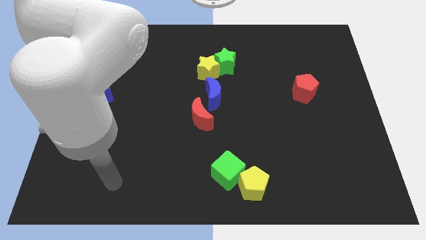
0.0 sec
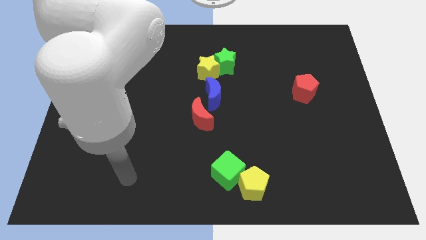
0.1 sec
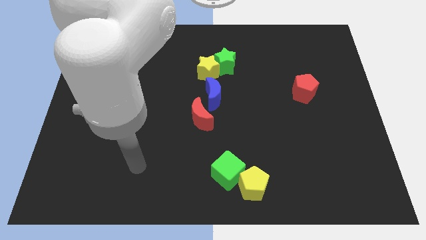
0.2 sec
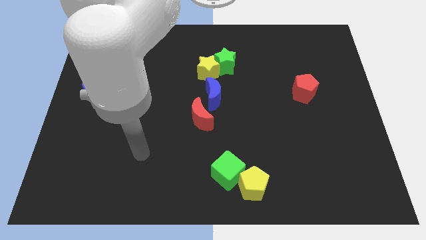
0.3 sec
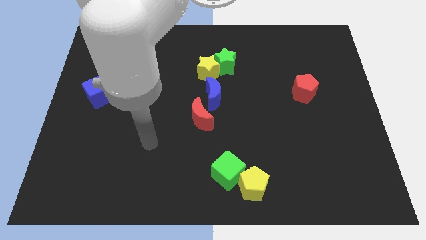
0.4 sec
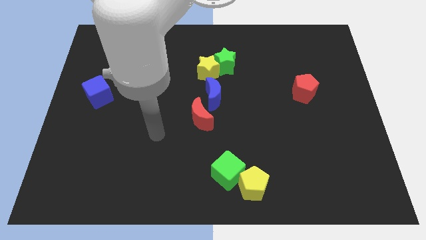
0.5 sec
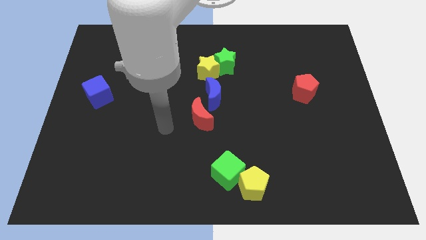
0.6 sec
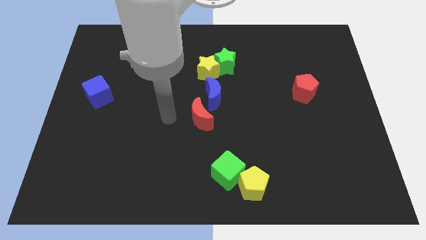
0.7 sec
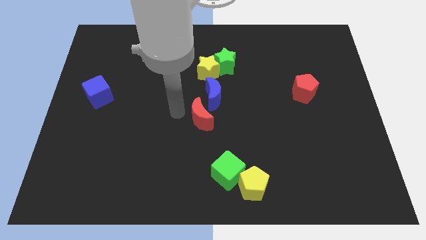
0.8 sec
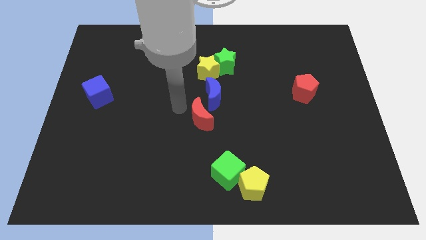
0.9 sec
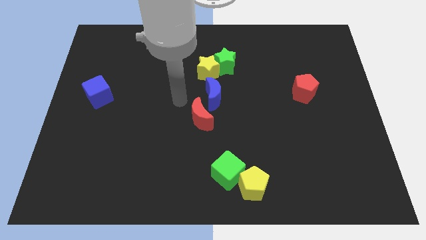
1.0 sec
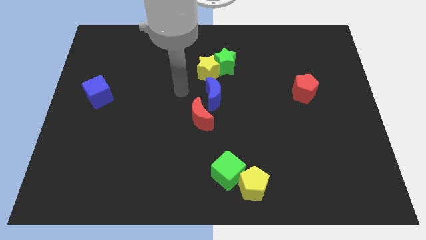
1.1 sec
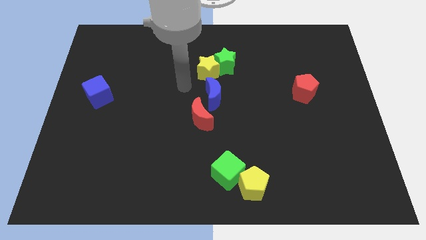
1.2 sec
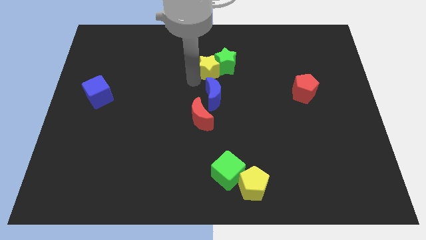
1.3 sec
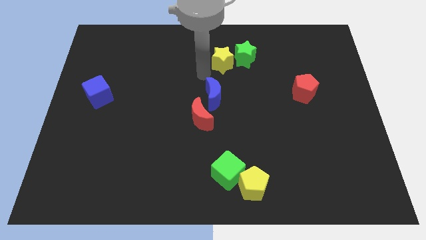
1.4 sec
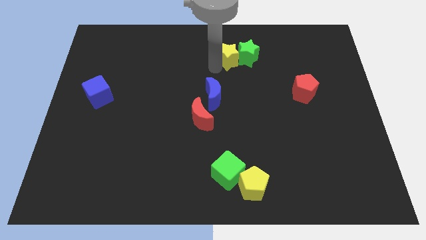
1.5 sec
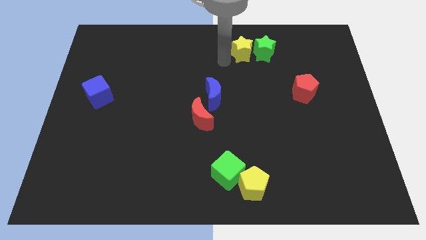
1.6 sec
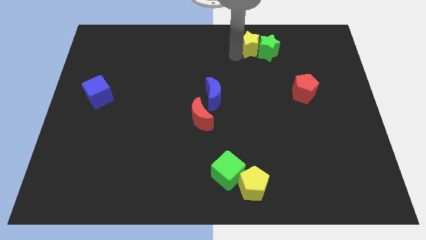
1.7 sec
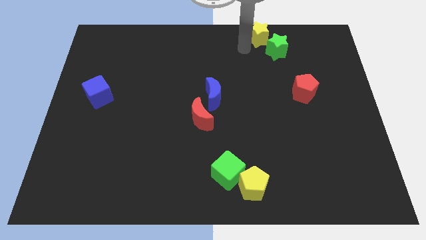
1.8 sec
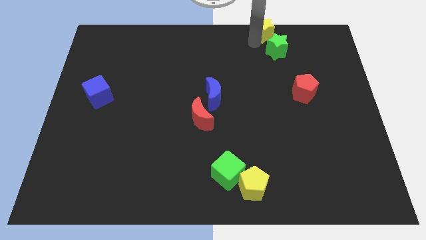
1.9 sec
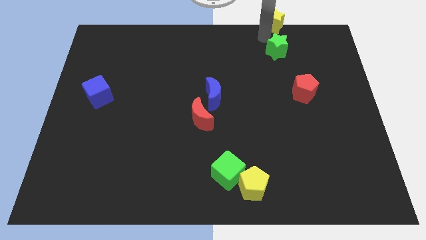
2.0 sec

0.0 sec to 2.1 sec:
move the green star away from the yellow star

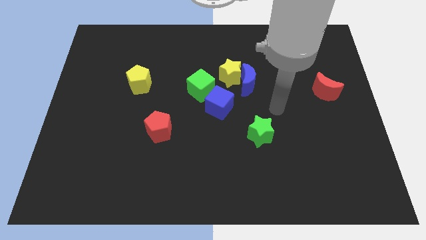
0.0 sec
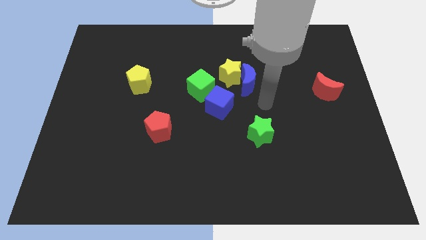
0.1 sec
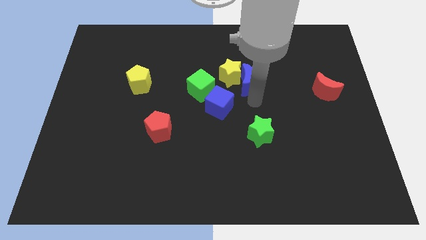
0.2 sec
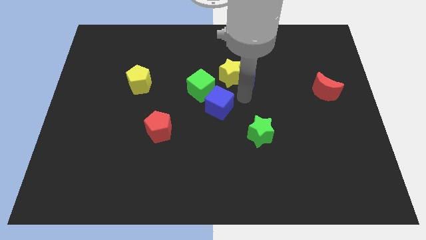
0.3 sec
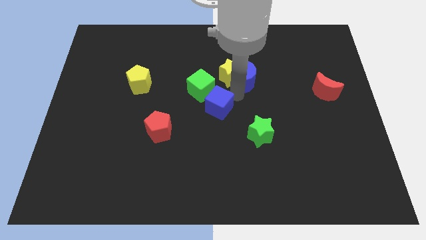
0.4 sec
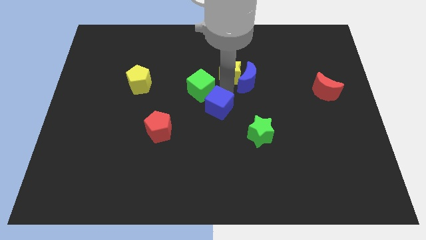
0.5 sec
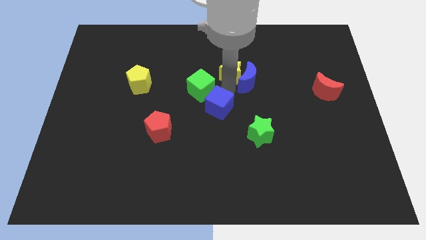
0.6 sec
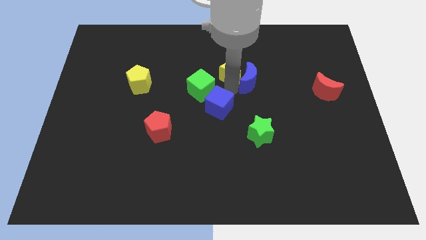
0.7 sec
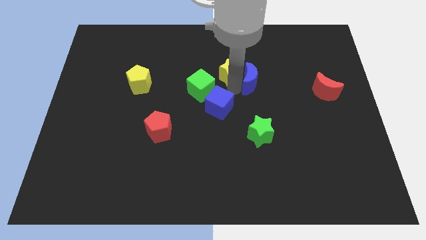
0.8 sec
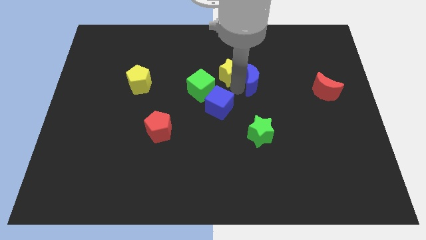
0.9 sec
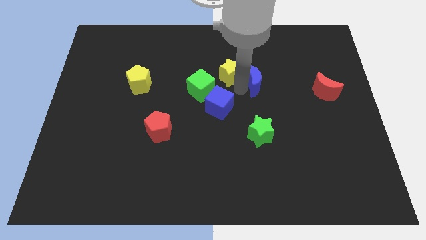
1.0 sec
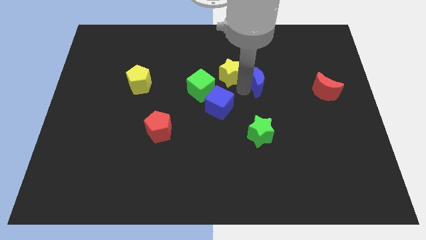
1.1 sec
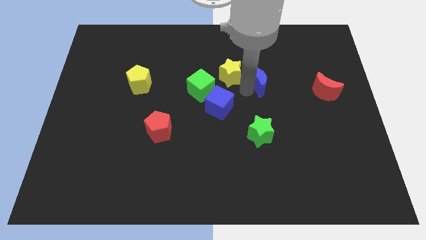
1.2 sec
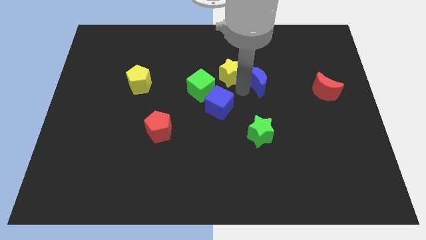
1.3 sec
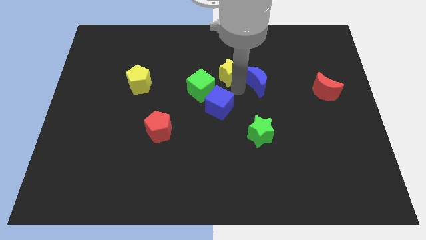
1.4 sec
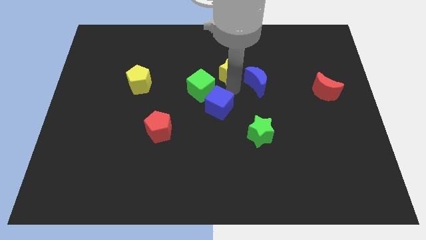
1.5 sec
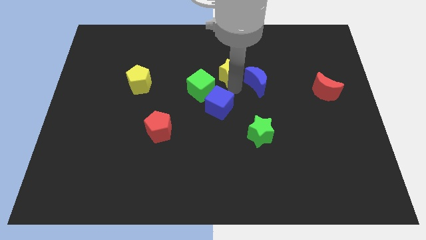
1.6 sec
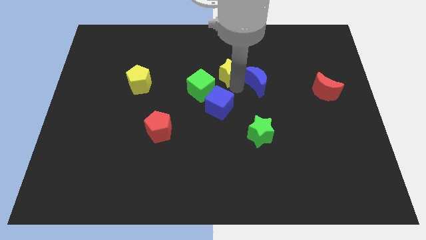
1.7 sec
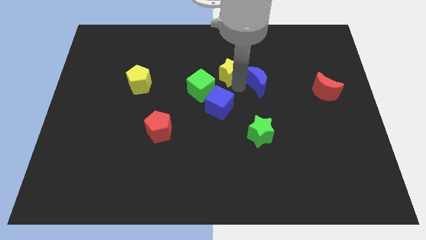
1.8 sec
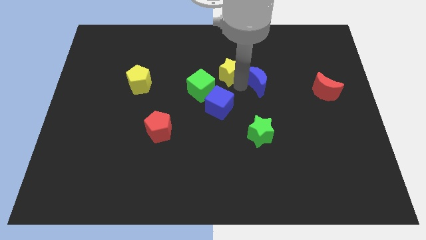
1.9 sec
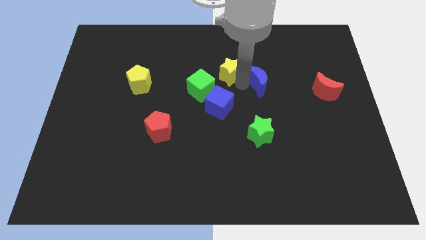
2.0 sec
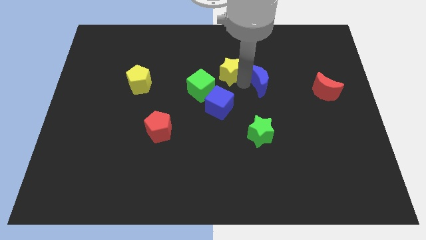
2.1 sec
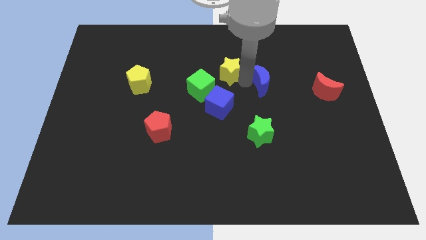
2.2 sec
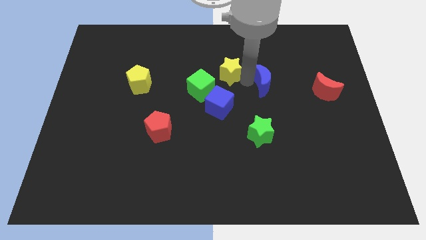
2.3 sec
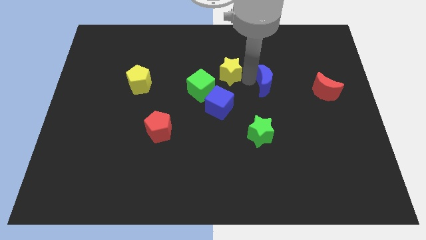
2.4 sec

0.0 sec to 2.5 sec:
pull the blue moon apart from the yellow star and blue cube

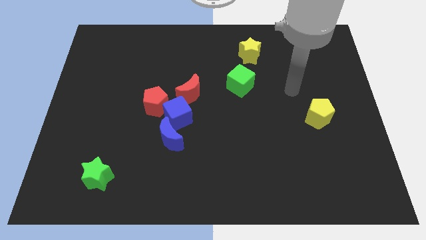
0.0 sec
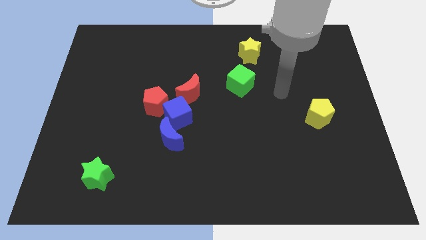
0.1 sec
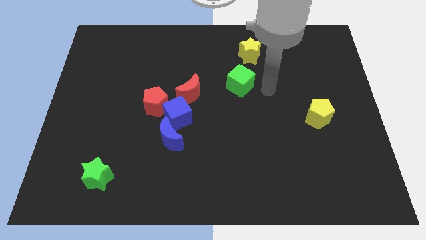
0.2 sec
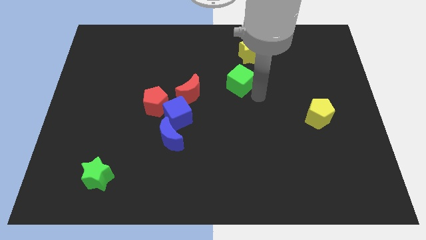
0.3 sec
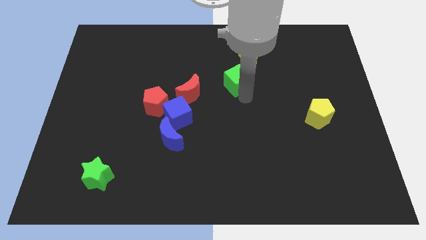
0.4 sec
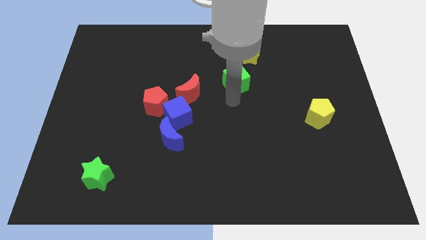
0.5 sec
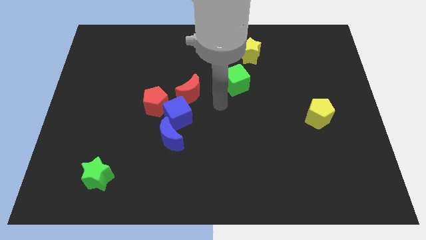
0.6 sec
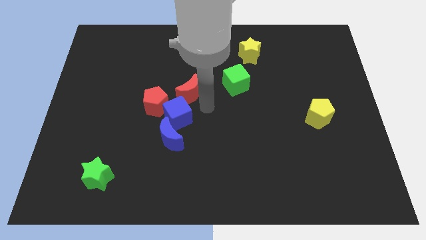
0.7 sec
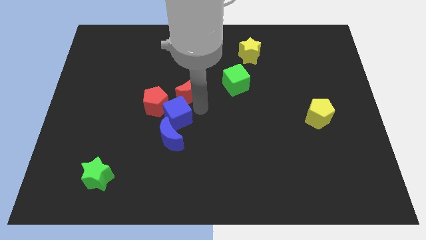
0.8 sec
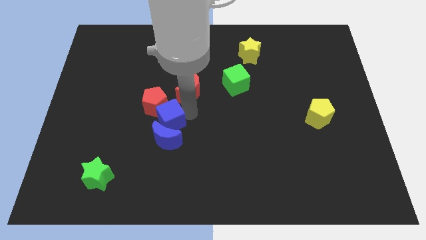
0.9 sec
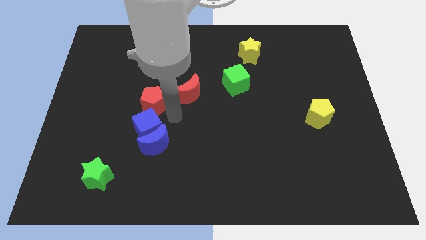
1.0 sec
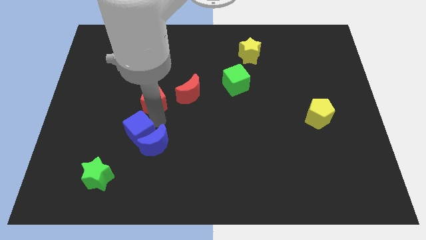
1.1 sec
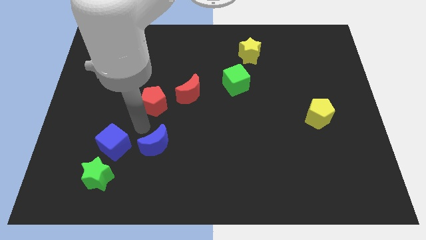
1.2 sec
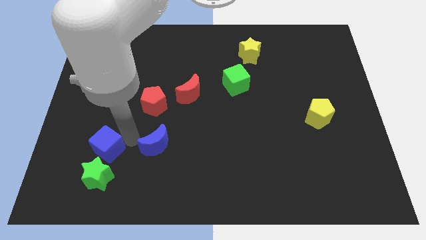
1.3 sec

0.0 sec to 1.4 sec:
separate the blue moon from the blue cube

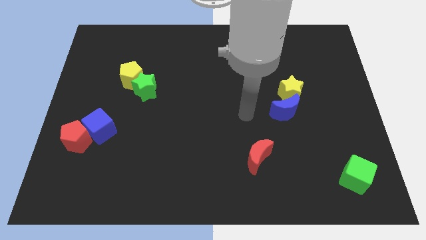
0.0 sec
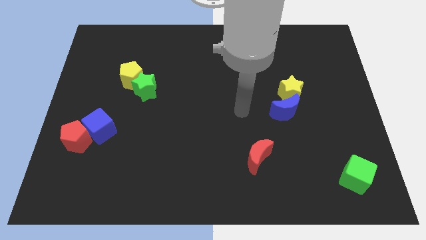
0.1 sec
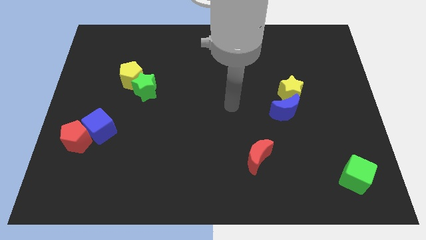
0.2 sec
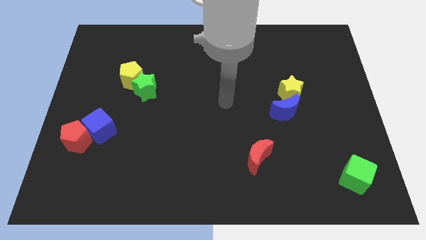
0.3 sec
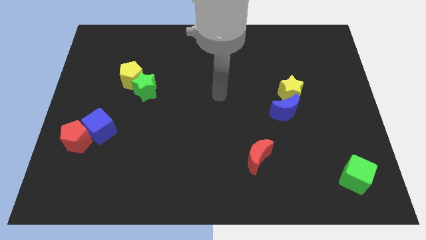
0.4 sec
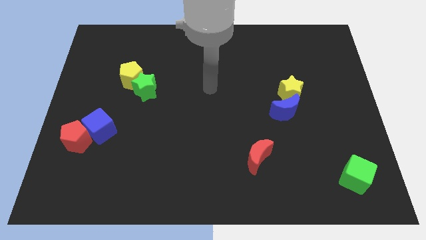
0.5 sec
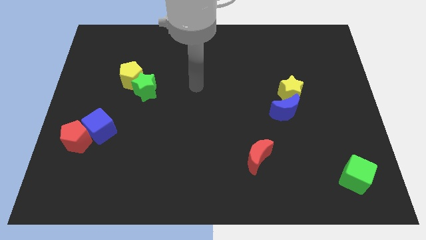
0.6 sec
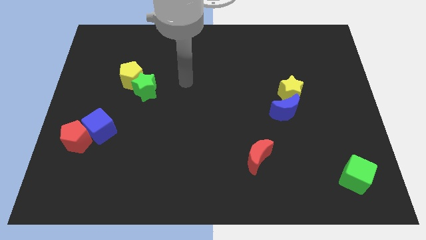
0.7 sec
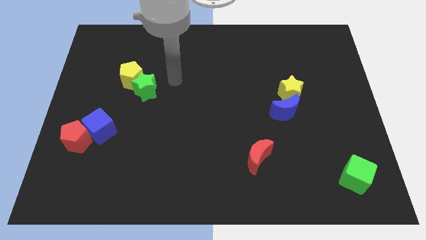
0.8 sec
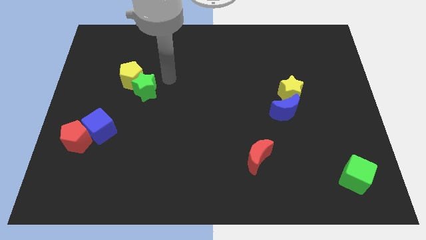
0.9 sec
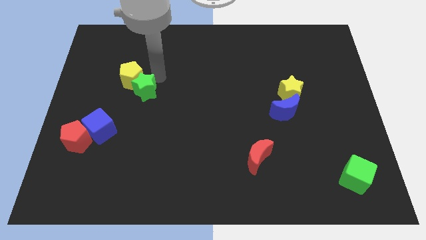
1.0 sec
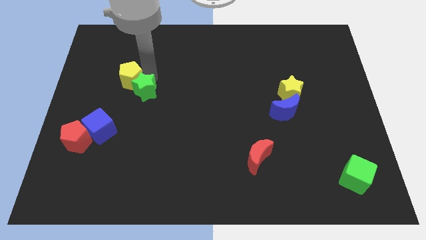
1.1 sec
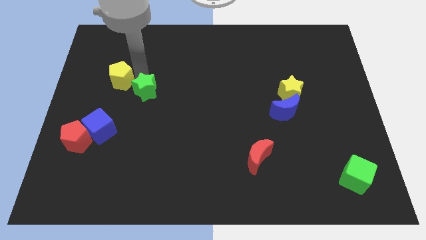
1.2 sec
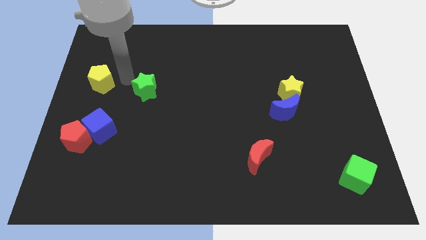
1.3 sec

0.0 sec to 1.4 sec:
move the green star away from the yellow pentagon

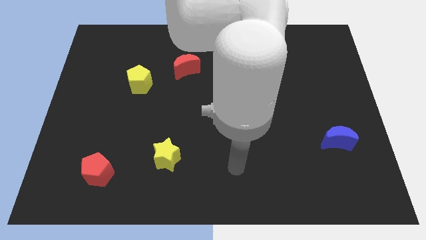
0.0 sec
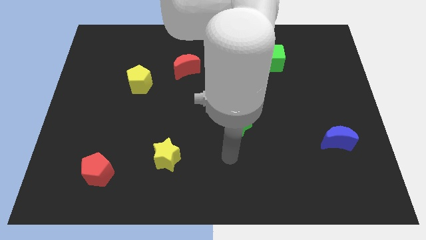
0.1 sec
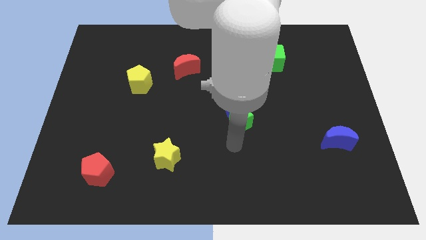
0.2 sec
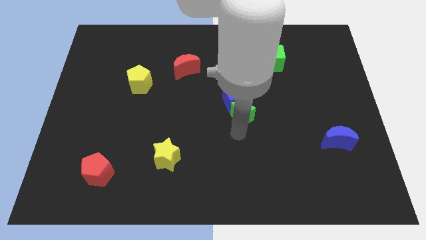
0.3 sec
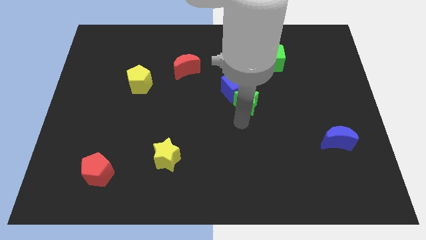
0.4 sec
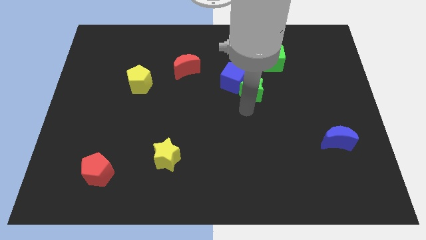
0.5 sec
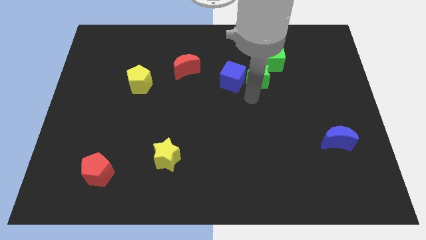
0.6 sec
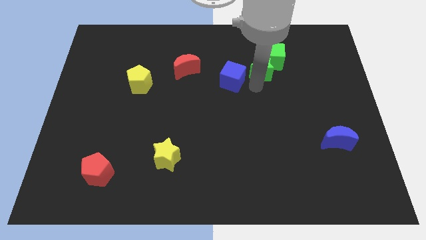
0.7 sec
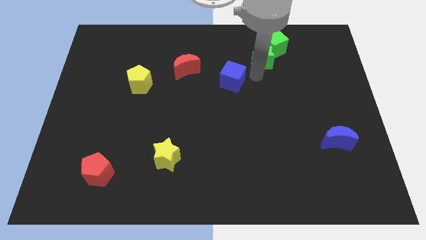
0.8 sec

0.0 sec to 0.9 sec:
pull the blue cube apart from the green star

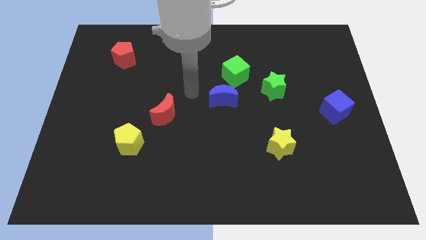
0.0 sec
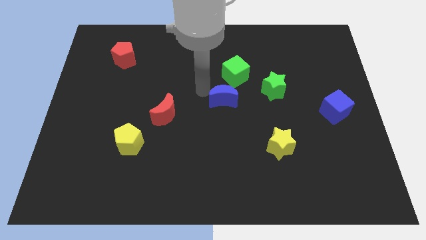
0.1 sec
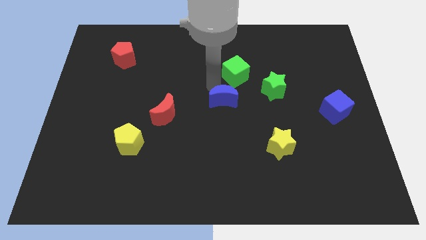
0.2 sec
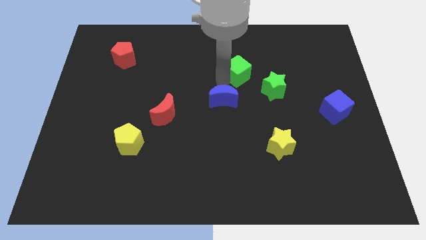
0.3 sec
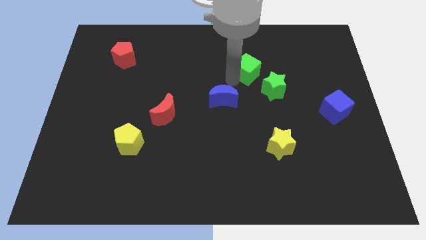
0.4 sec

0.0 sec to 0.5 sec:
separate the blue moon from the green cube

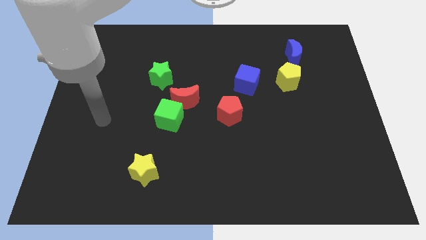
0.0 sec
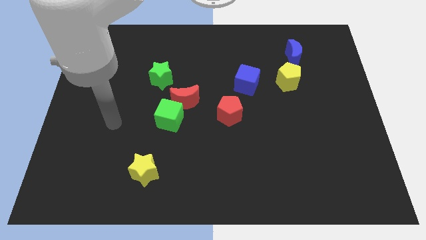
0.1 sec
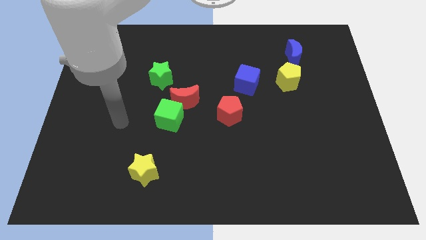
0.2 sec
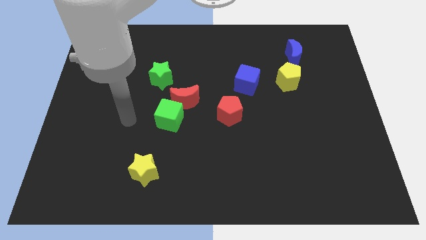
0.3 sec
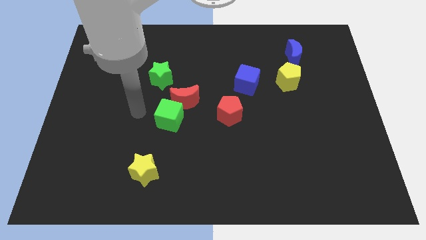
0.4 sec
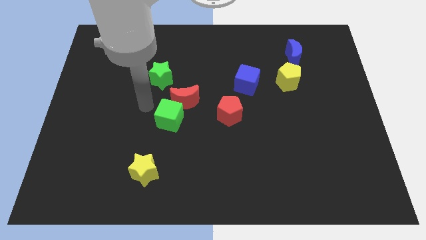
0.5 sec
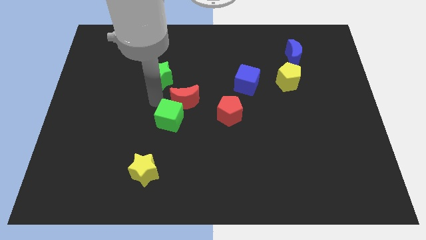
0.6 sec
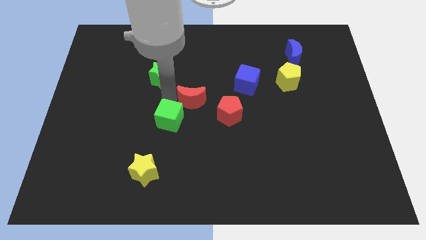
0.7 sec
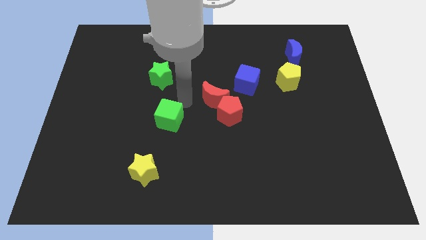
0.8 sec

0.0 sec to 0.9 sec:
pull the green cube apart from the red moon
